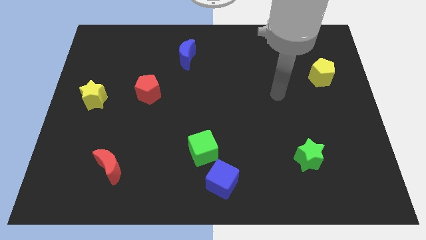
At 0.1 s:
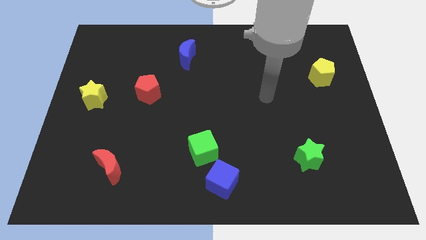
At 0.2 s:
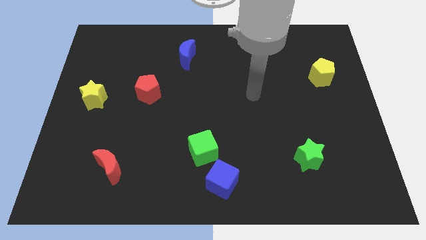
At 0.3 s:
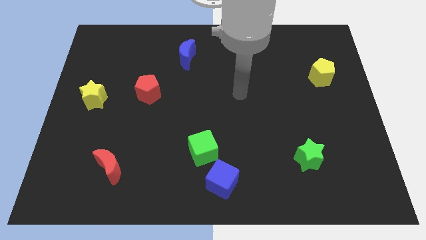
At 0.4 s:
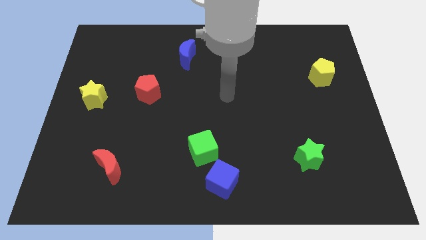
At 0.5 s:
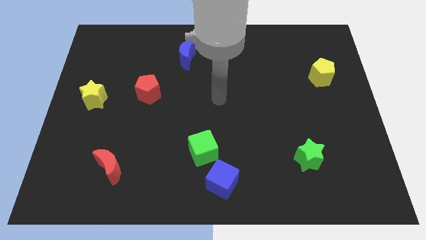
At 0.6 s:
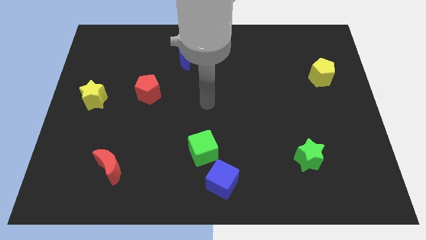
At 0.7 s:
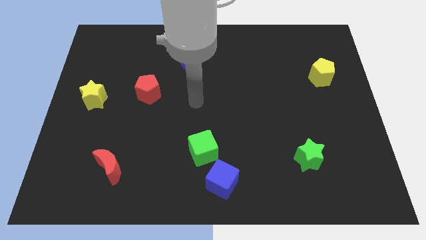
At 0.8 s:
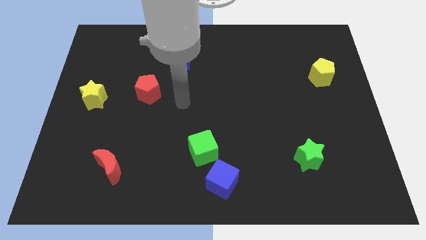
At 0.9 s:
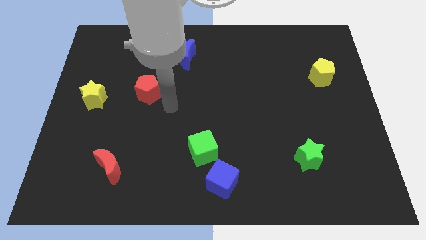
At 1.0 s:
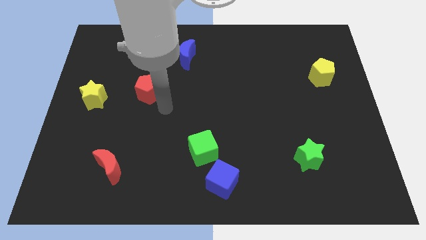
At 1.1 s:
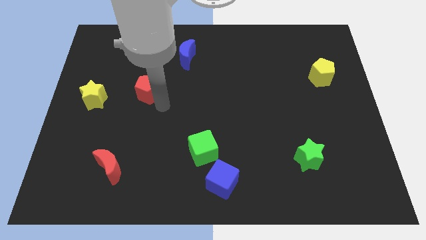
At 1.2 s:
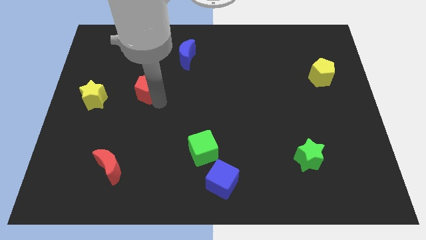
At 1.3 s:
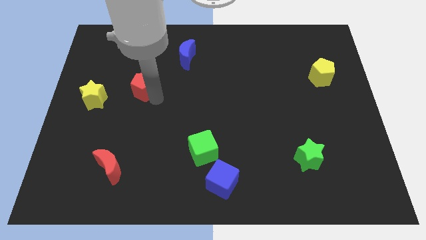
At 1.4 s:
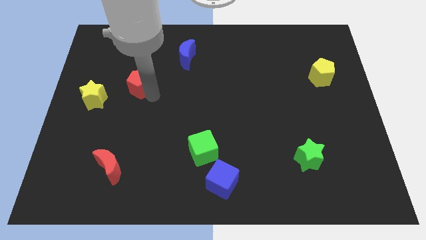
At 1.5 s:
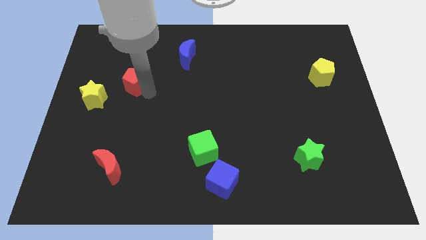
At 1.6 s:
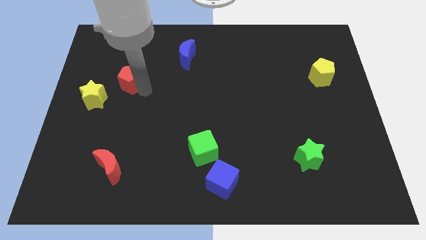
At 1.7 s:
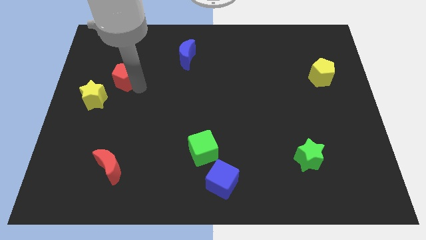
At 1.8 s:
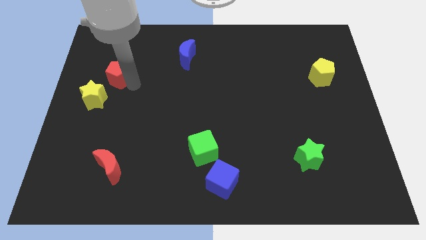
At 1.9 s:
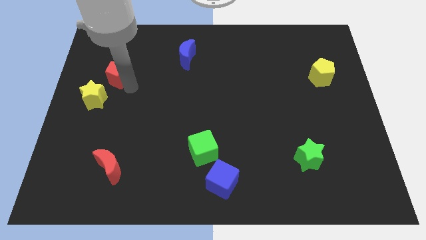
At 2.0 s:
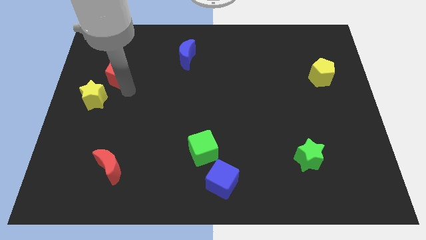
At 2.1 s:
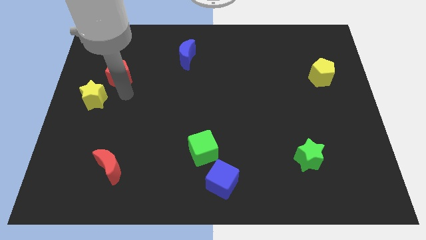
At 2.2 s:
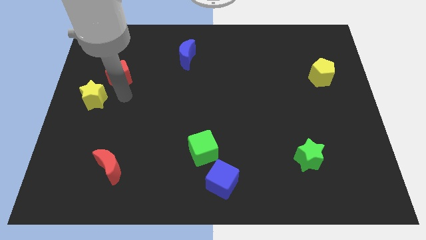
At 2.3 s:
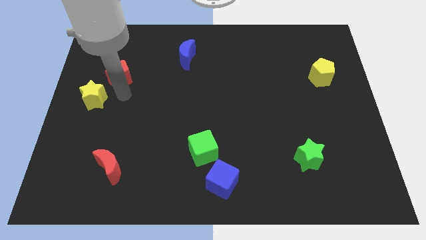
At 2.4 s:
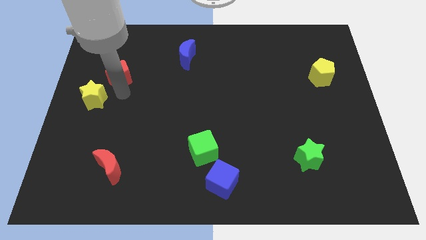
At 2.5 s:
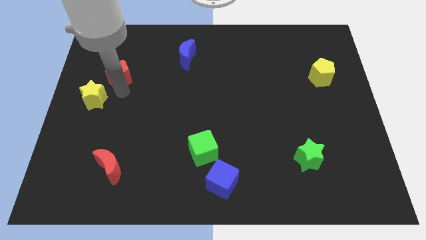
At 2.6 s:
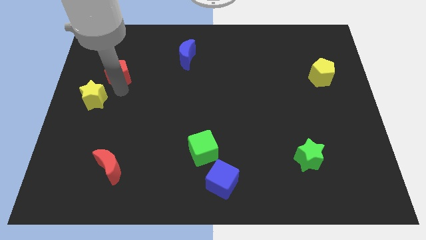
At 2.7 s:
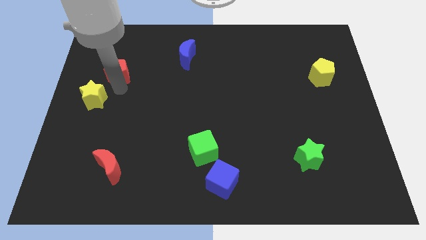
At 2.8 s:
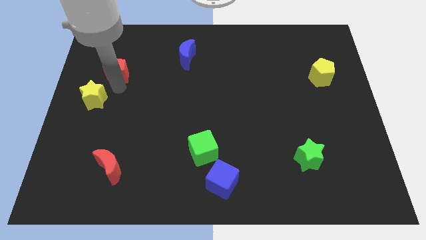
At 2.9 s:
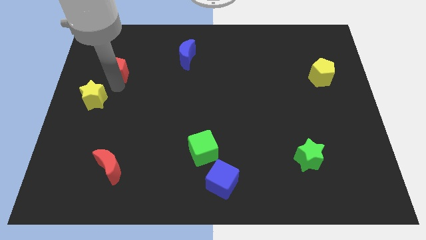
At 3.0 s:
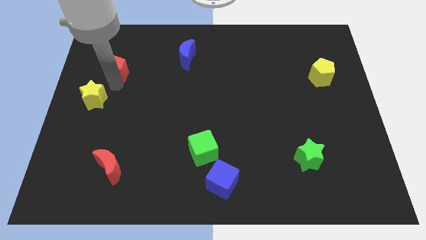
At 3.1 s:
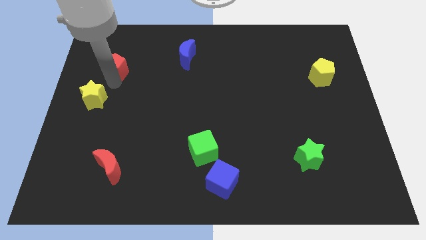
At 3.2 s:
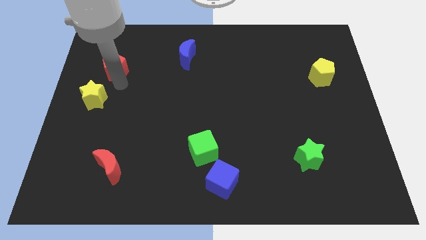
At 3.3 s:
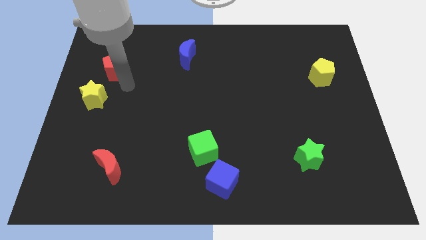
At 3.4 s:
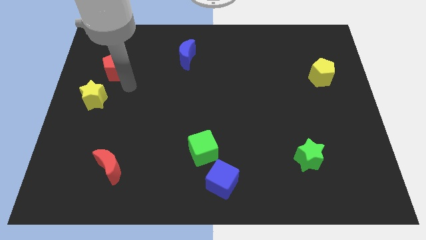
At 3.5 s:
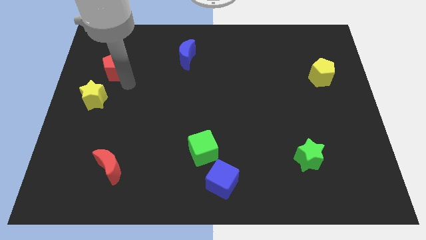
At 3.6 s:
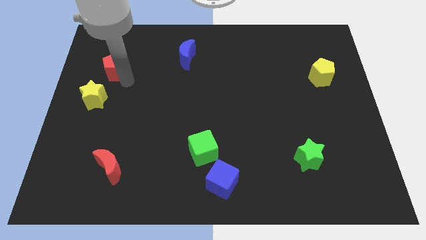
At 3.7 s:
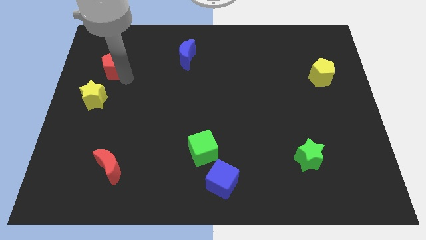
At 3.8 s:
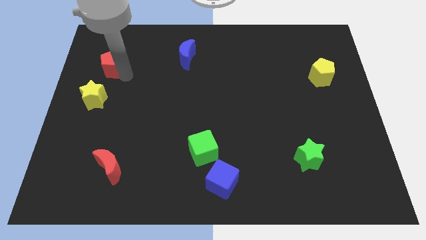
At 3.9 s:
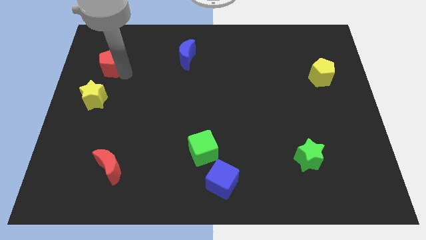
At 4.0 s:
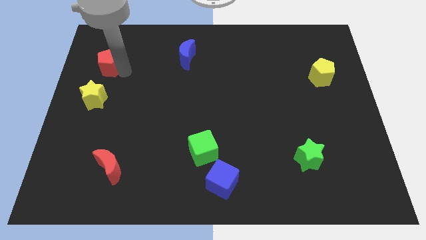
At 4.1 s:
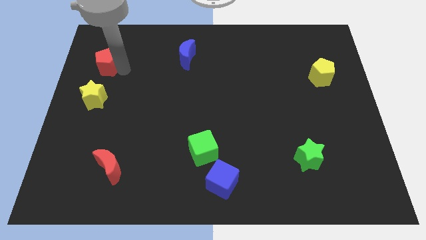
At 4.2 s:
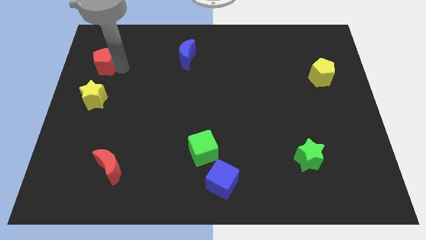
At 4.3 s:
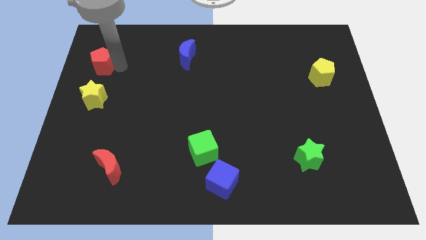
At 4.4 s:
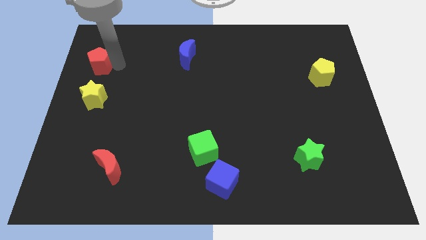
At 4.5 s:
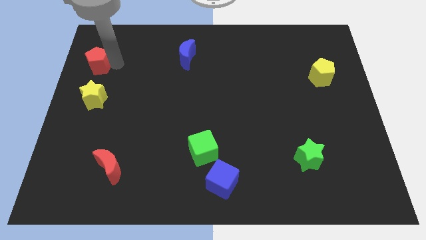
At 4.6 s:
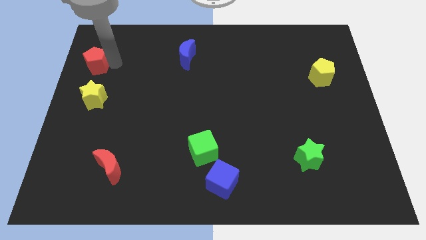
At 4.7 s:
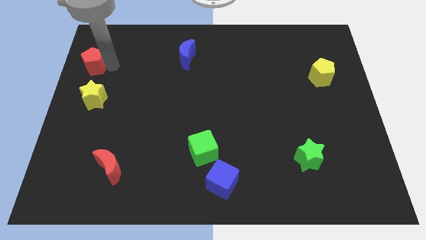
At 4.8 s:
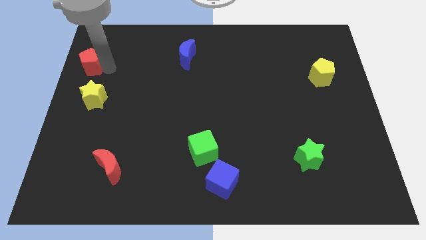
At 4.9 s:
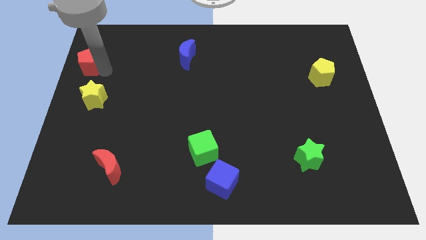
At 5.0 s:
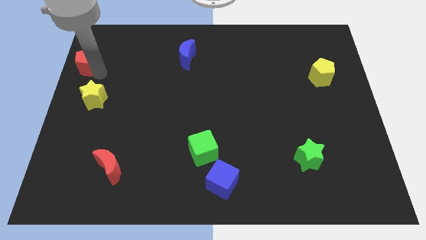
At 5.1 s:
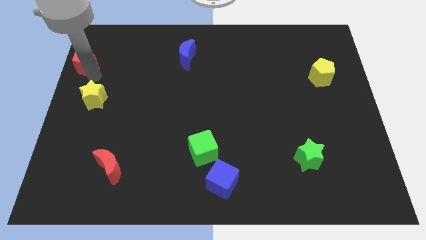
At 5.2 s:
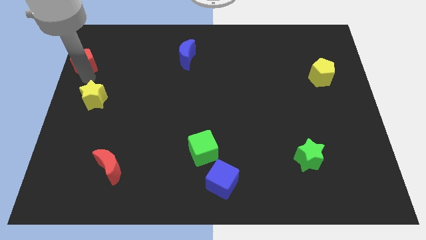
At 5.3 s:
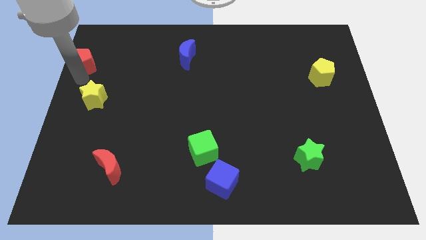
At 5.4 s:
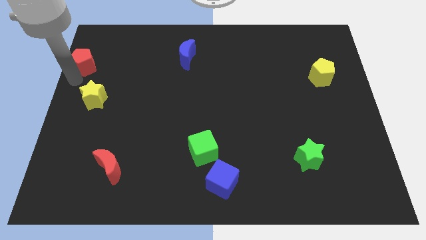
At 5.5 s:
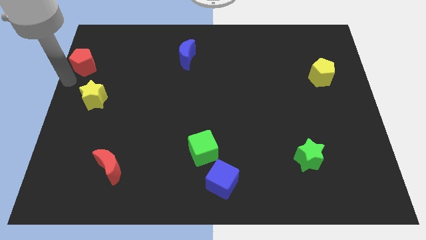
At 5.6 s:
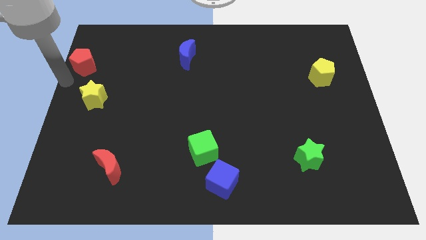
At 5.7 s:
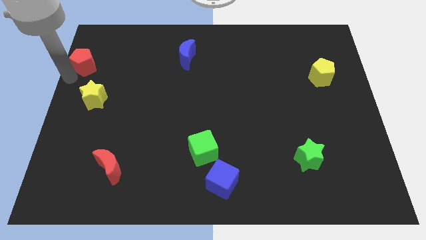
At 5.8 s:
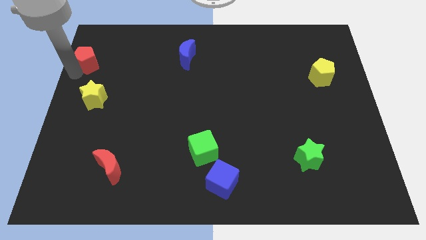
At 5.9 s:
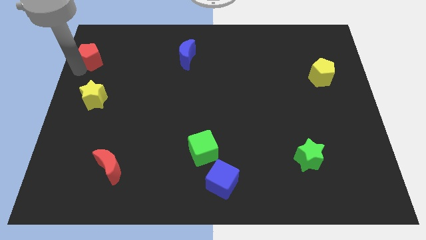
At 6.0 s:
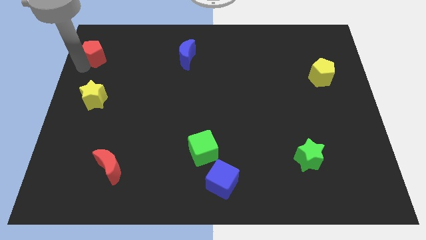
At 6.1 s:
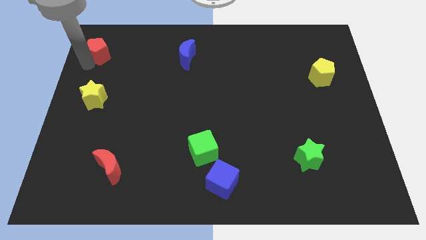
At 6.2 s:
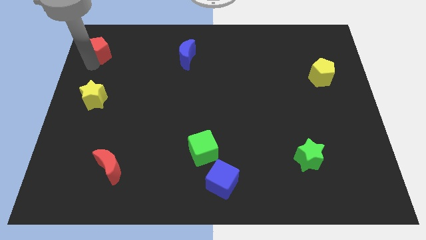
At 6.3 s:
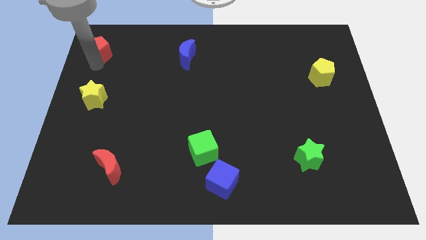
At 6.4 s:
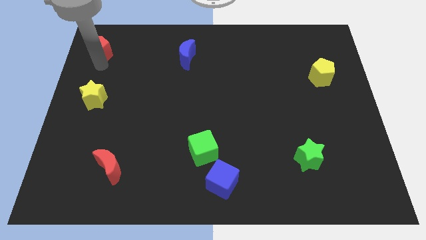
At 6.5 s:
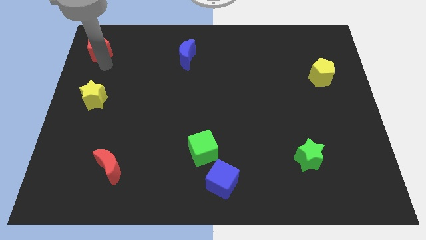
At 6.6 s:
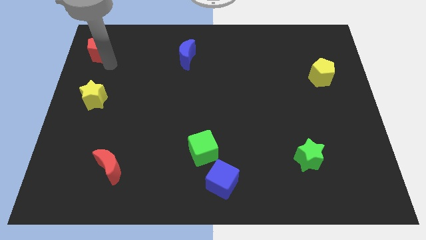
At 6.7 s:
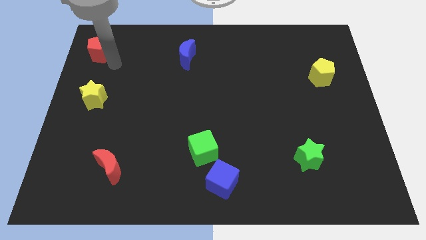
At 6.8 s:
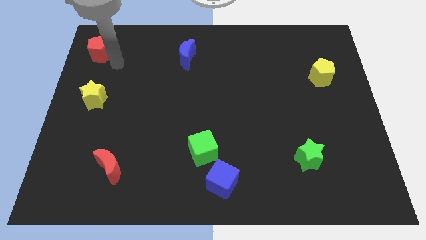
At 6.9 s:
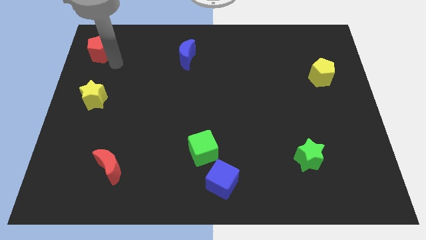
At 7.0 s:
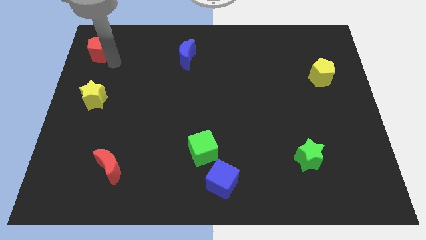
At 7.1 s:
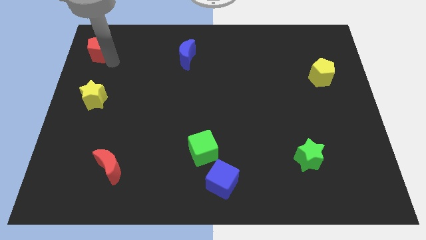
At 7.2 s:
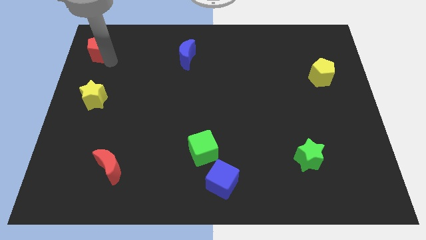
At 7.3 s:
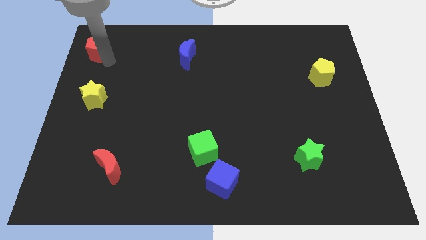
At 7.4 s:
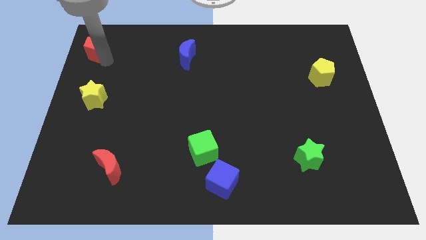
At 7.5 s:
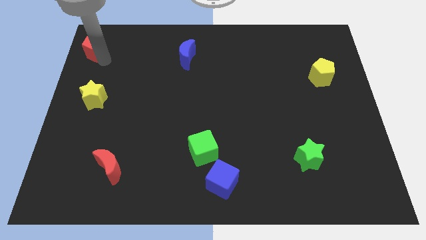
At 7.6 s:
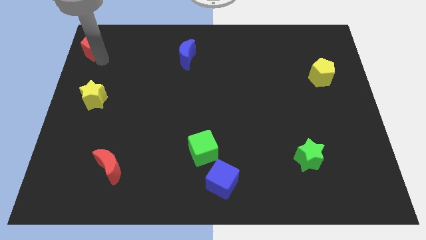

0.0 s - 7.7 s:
move the red pentagon to the upper left corner

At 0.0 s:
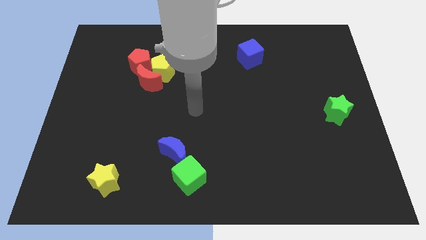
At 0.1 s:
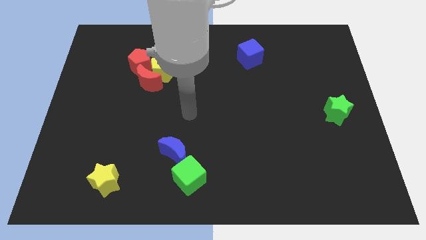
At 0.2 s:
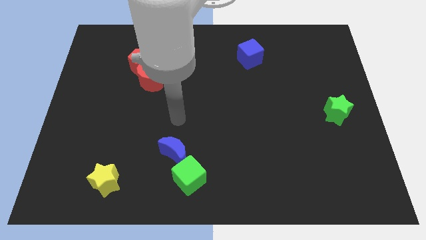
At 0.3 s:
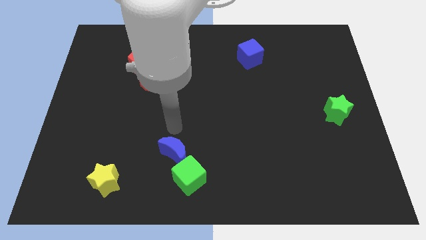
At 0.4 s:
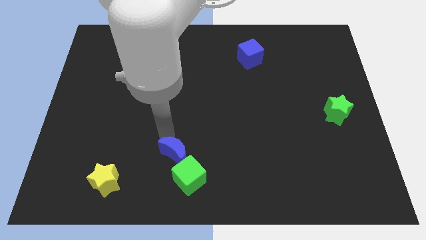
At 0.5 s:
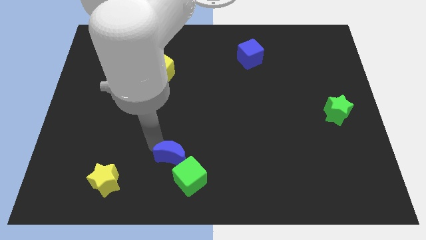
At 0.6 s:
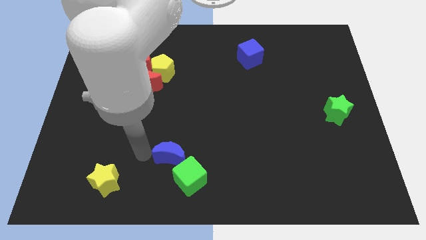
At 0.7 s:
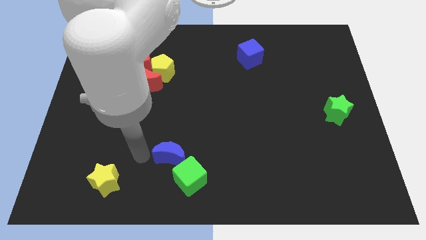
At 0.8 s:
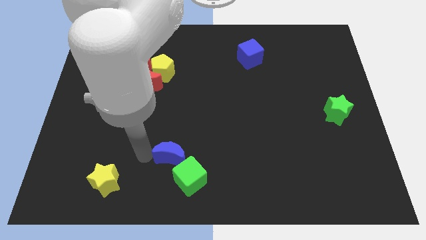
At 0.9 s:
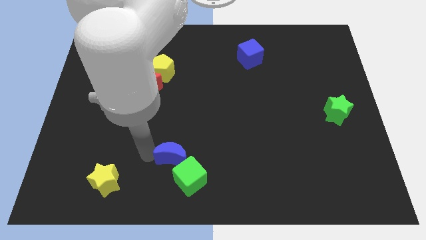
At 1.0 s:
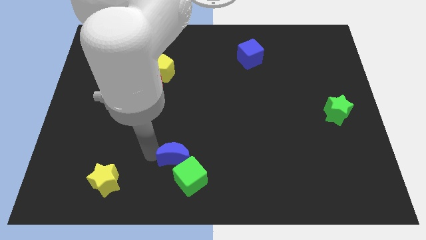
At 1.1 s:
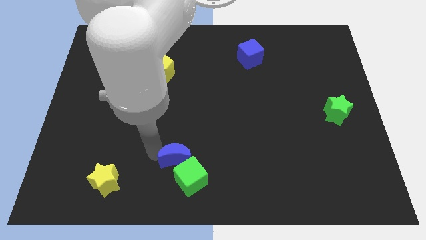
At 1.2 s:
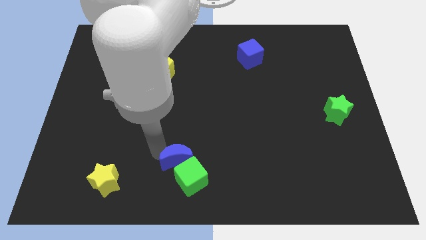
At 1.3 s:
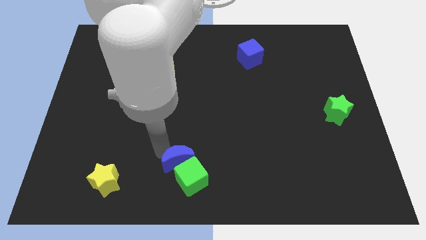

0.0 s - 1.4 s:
slide the blue moon to the bottom
